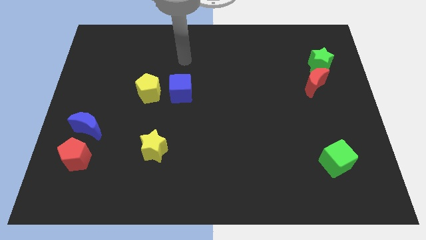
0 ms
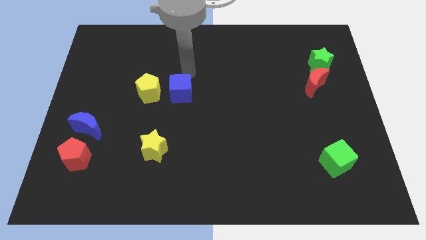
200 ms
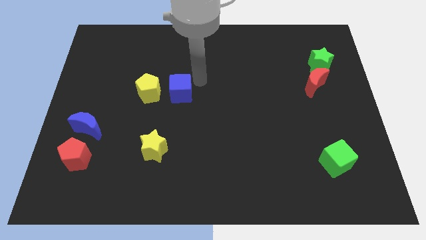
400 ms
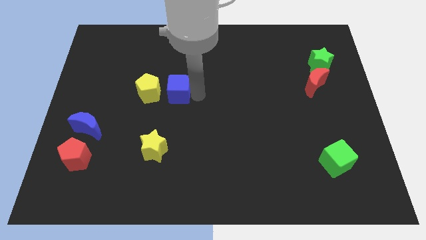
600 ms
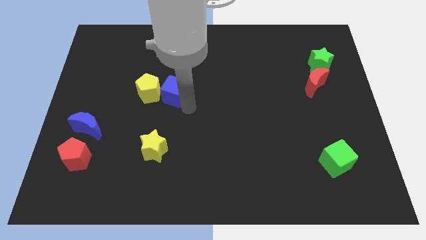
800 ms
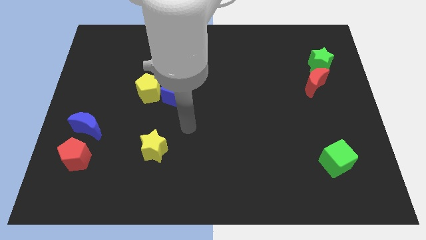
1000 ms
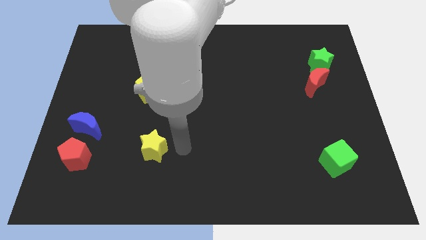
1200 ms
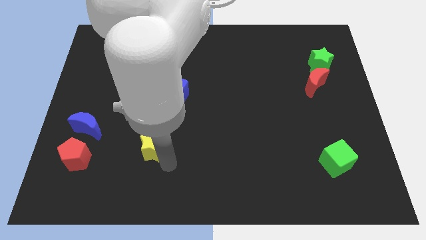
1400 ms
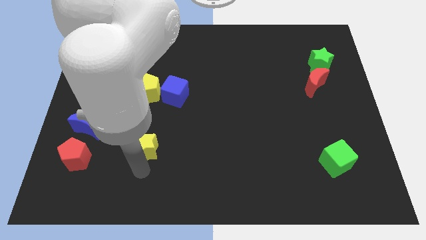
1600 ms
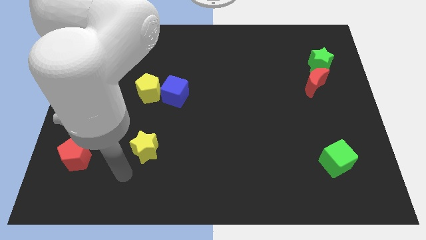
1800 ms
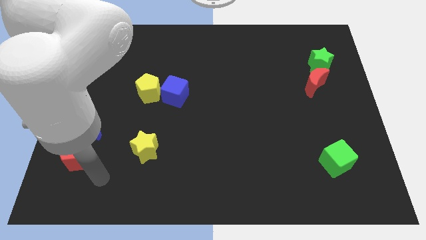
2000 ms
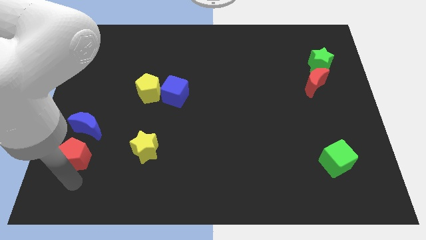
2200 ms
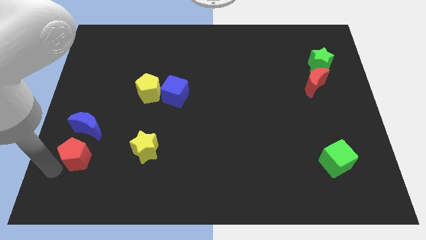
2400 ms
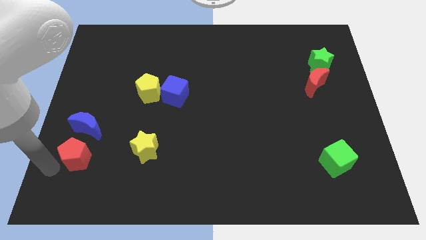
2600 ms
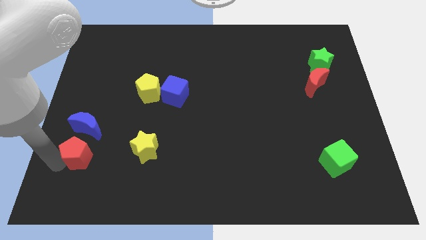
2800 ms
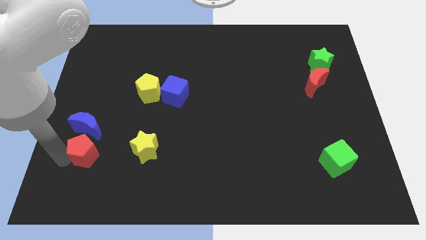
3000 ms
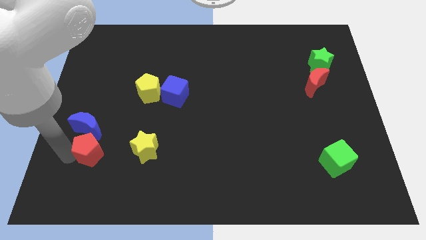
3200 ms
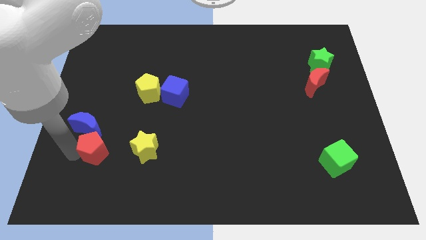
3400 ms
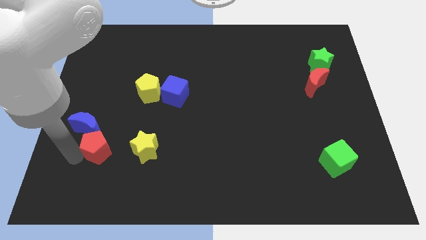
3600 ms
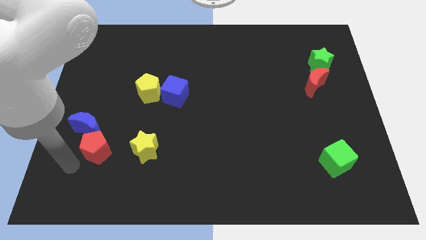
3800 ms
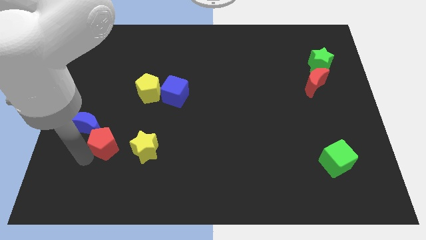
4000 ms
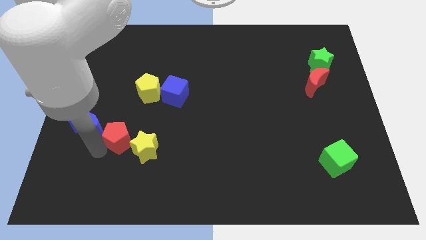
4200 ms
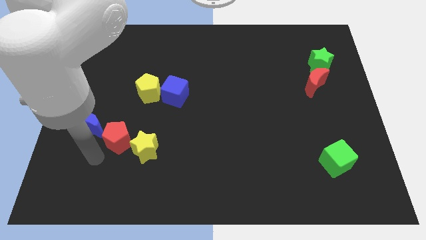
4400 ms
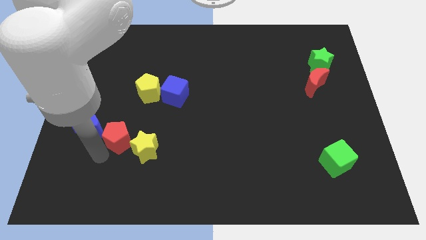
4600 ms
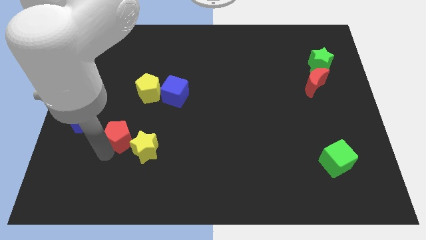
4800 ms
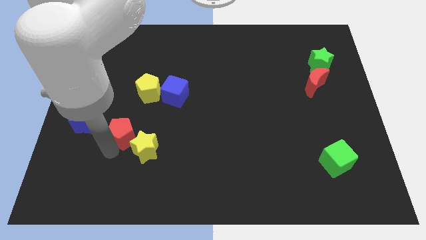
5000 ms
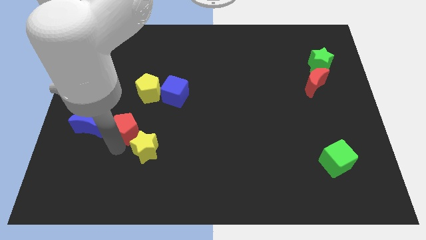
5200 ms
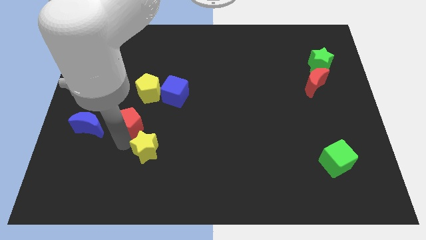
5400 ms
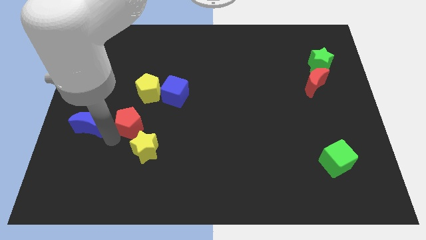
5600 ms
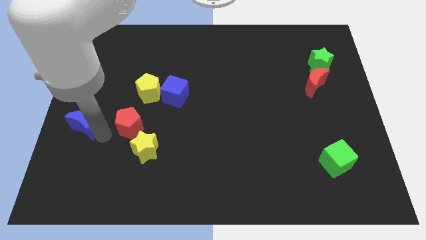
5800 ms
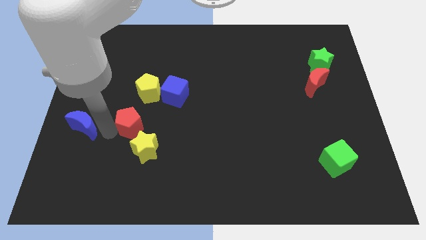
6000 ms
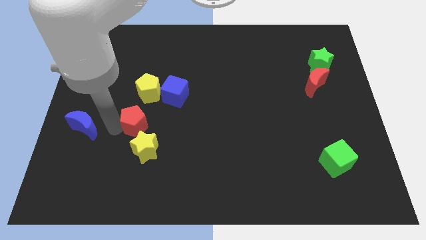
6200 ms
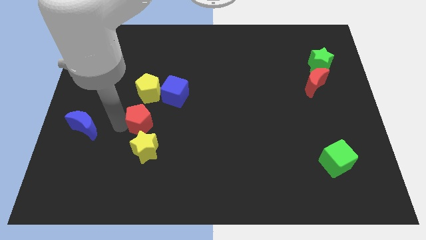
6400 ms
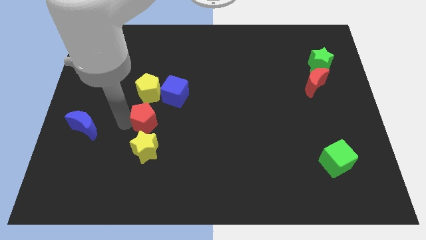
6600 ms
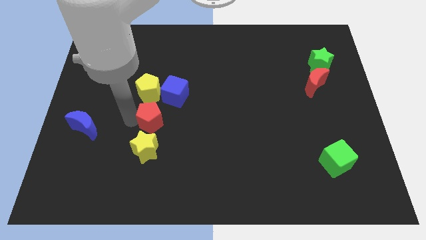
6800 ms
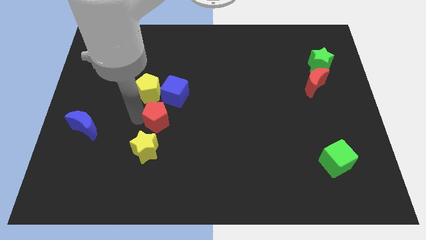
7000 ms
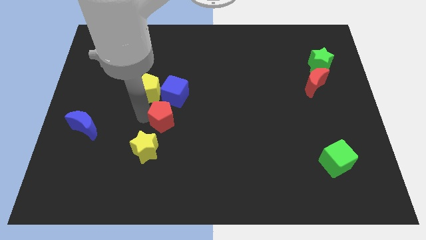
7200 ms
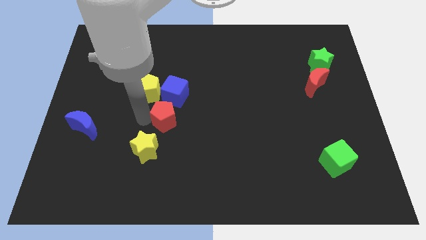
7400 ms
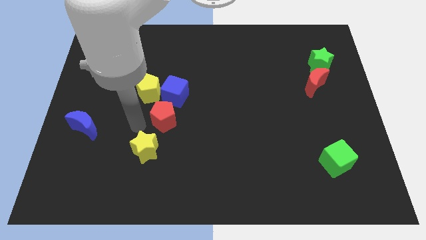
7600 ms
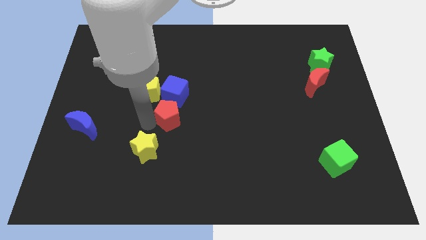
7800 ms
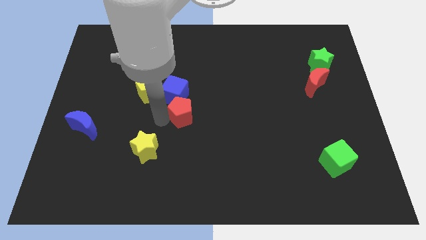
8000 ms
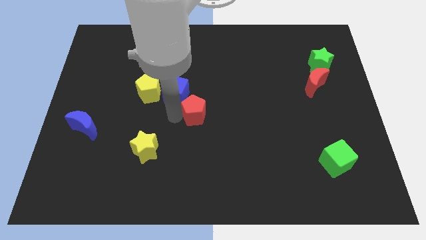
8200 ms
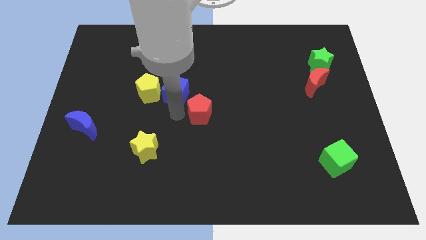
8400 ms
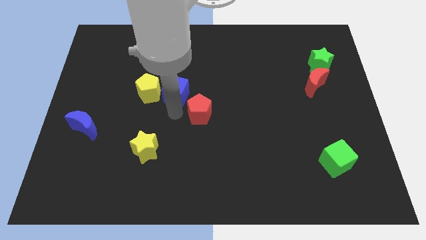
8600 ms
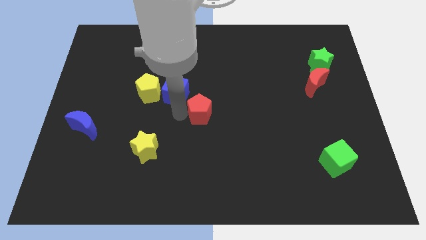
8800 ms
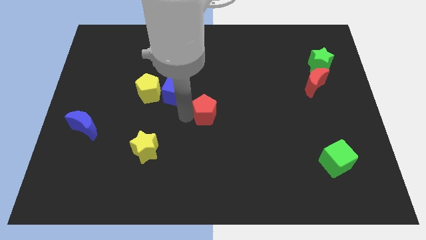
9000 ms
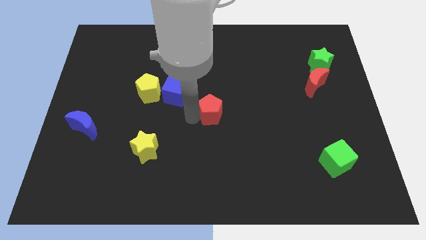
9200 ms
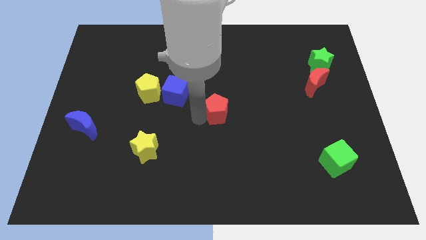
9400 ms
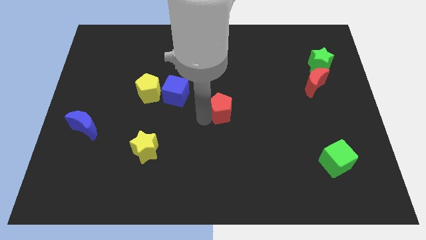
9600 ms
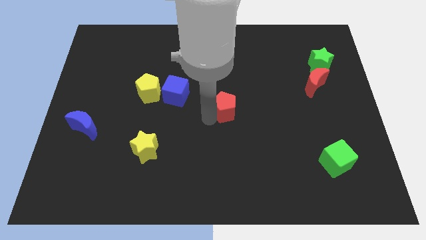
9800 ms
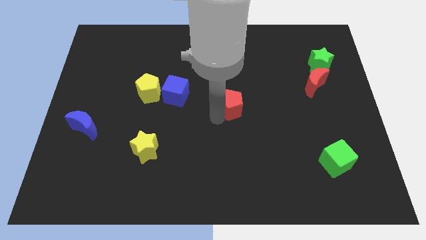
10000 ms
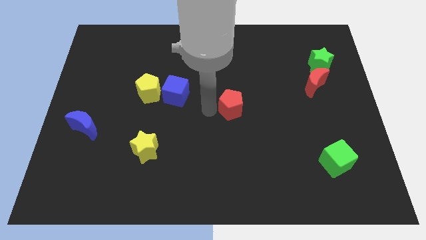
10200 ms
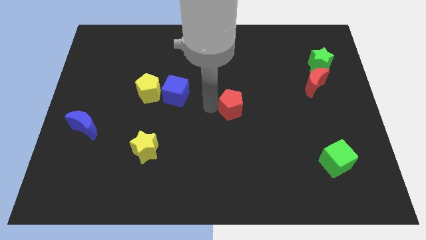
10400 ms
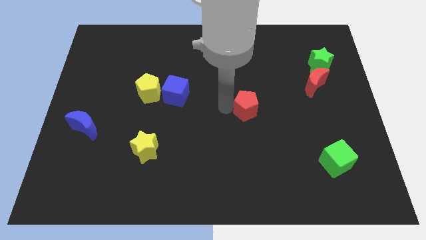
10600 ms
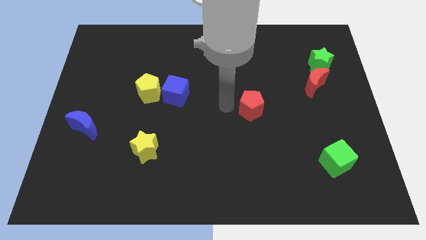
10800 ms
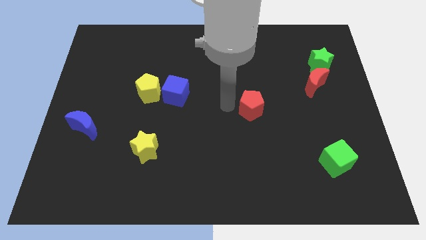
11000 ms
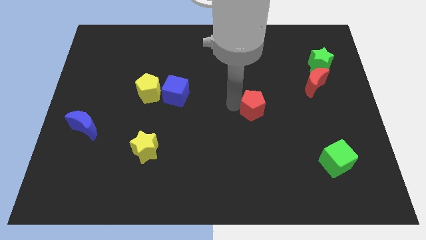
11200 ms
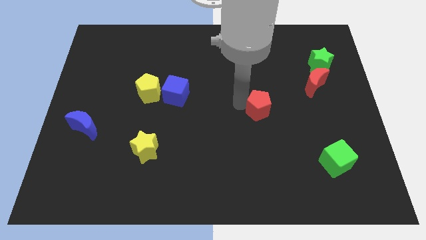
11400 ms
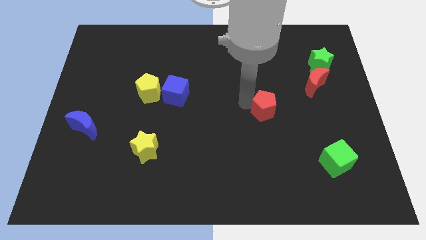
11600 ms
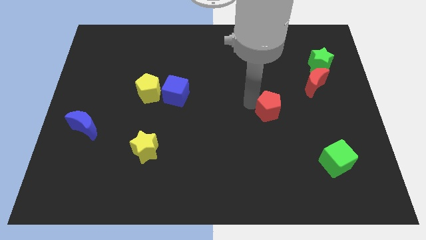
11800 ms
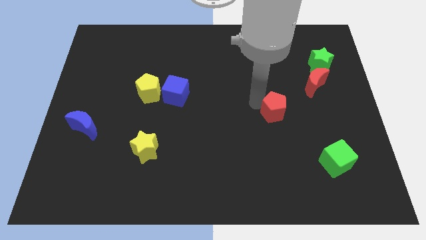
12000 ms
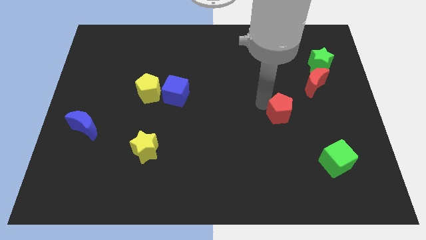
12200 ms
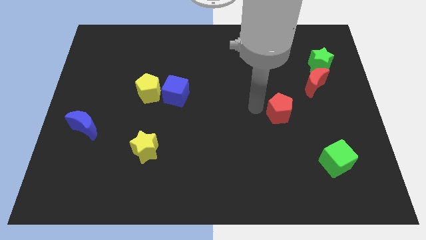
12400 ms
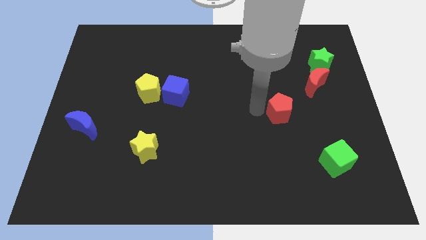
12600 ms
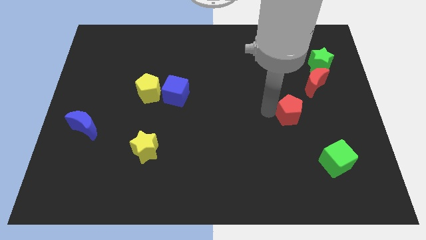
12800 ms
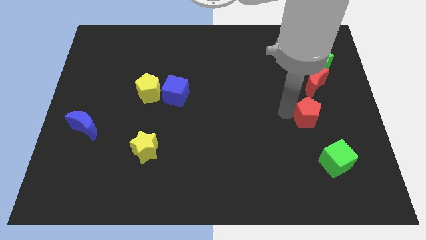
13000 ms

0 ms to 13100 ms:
move the red pentagon to the top of the green cube

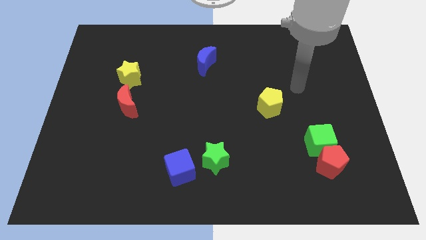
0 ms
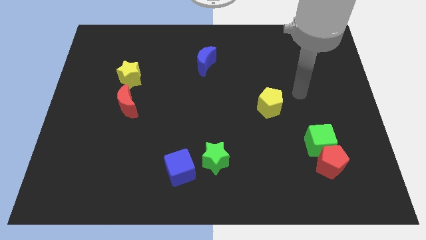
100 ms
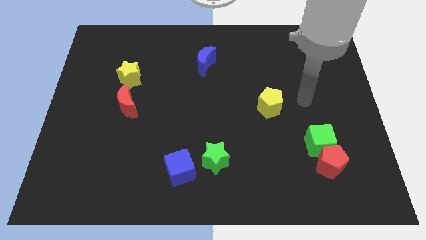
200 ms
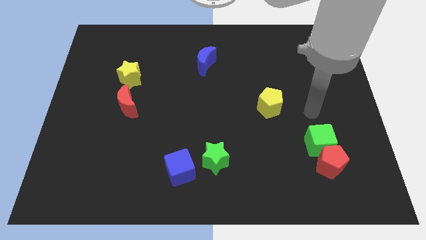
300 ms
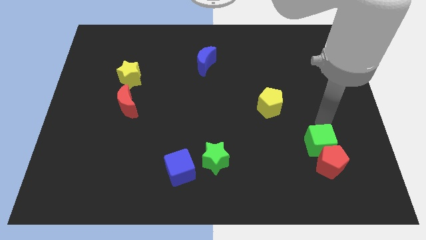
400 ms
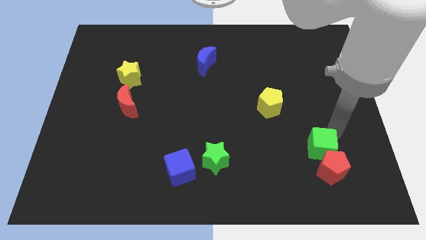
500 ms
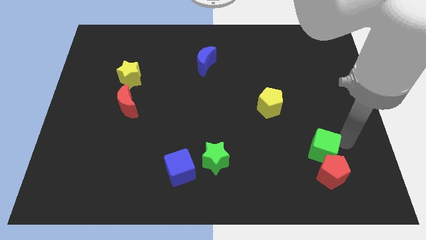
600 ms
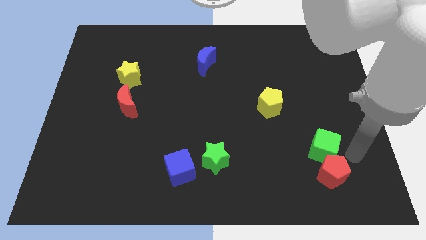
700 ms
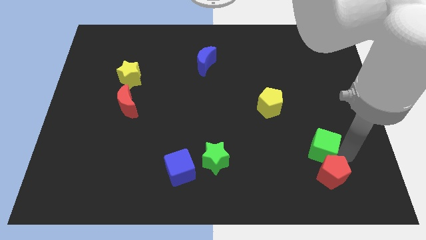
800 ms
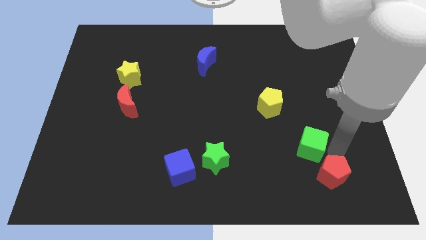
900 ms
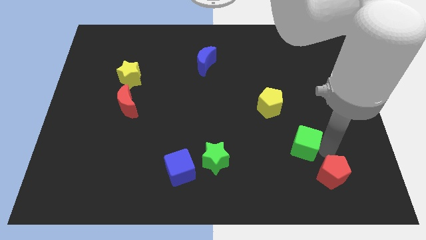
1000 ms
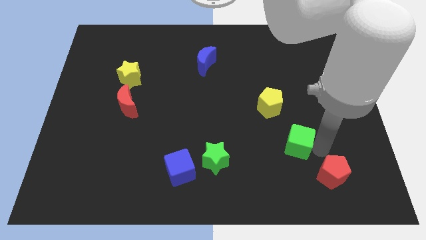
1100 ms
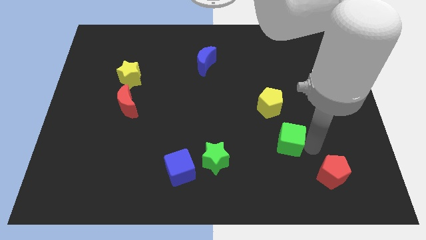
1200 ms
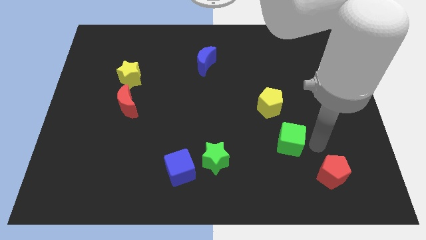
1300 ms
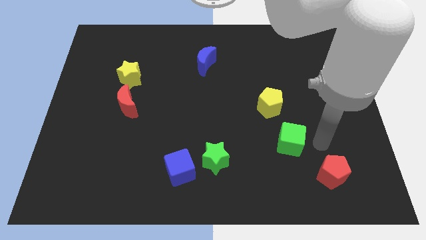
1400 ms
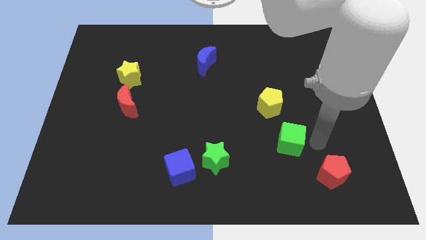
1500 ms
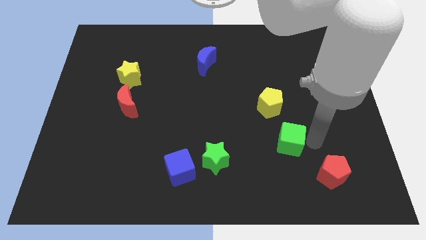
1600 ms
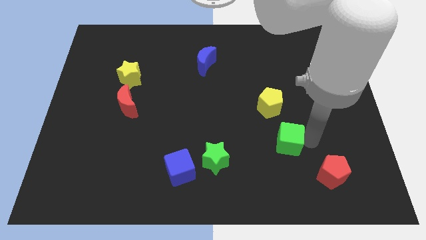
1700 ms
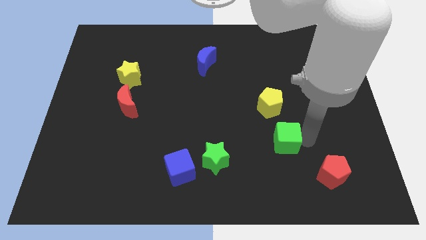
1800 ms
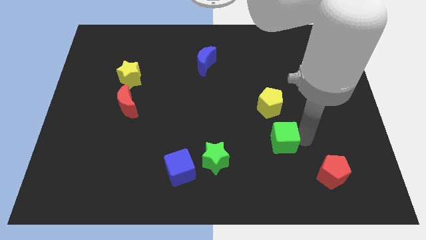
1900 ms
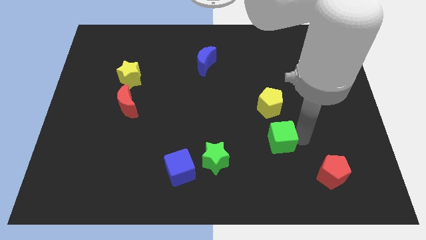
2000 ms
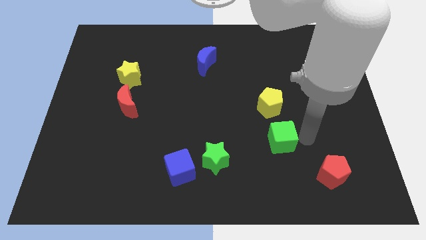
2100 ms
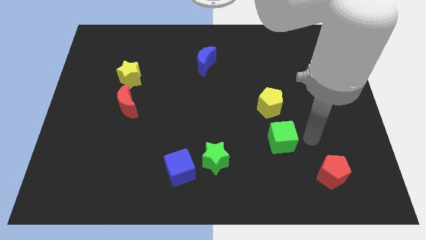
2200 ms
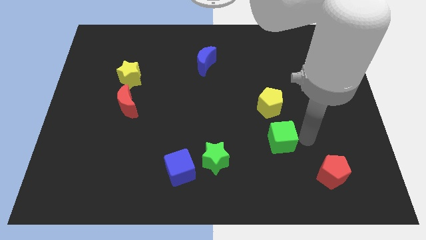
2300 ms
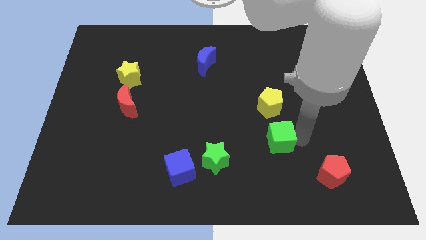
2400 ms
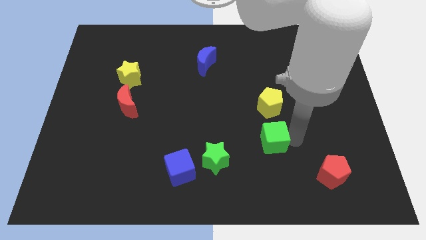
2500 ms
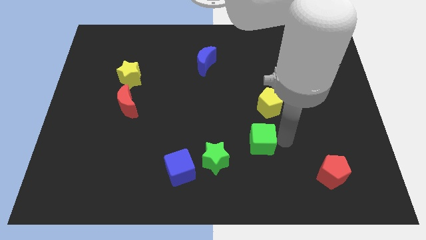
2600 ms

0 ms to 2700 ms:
put the green cube to the top right side of the green star
